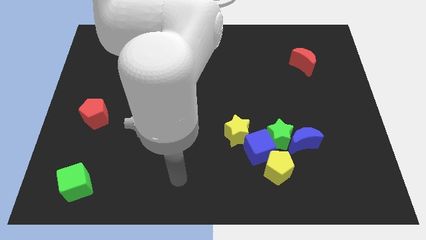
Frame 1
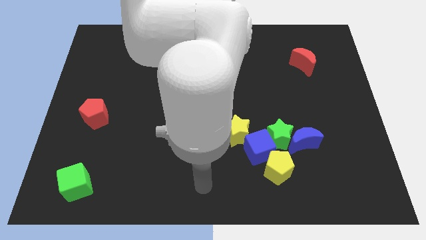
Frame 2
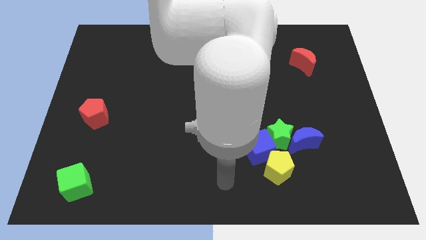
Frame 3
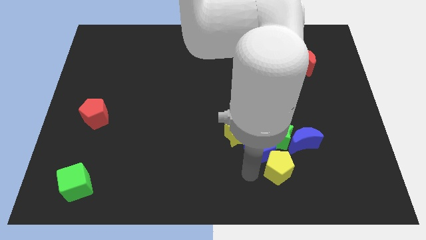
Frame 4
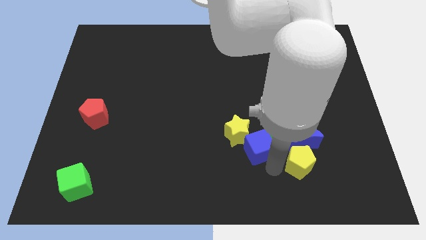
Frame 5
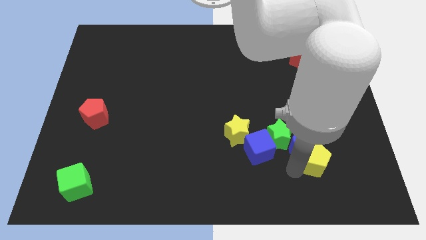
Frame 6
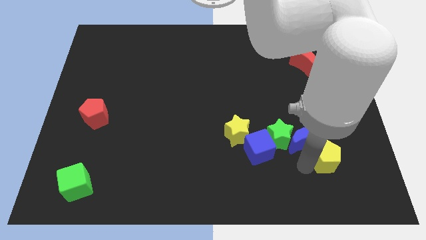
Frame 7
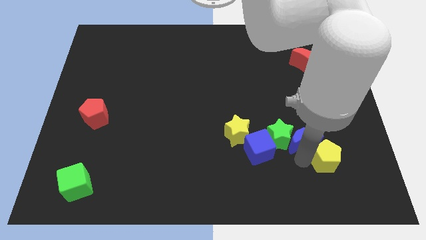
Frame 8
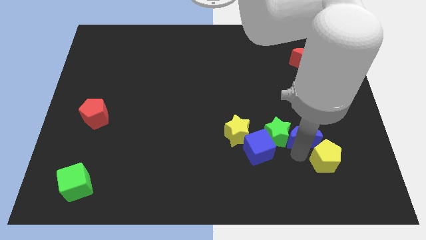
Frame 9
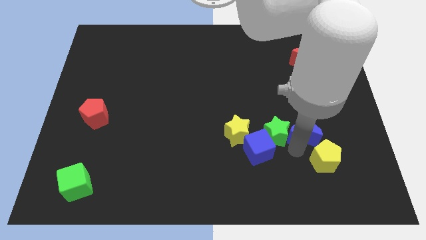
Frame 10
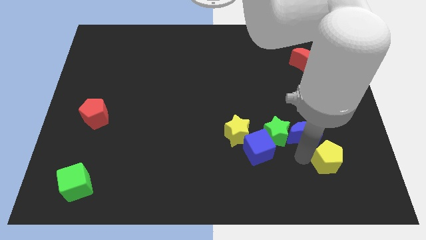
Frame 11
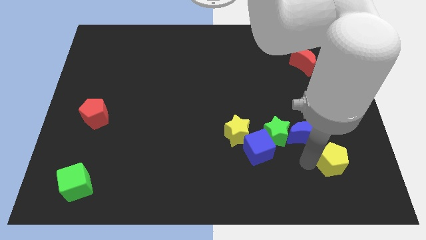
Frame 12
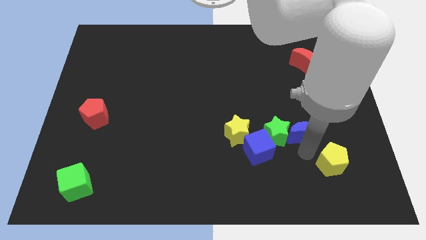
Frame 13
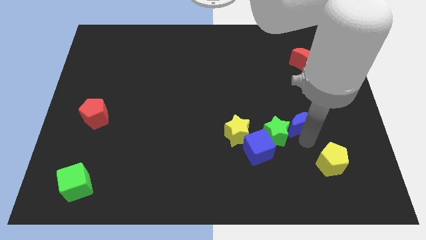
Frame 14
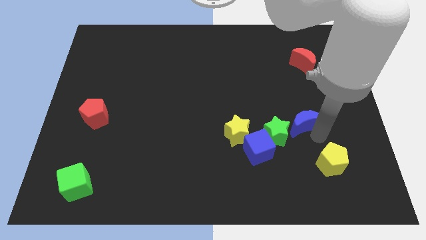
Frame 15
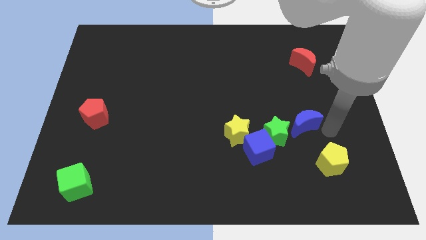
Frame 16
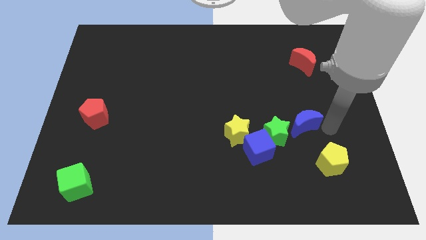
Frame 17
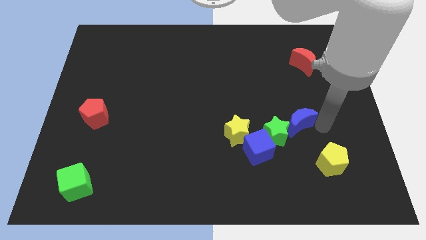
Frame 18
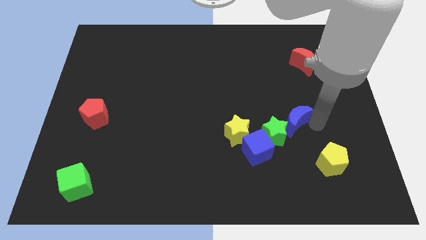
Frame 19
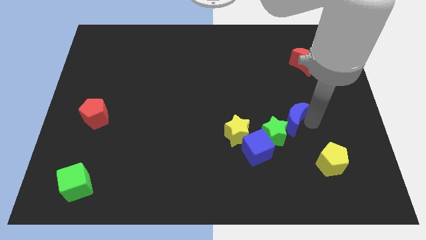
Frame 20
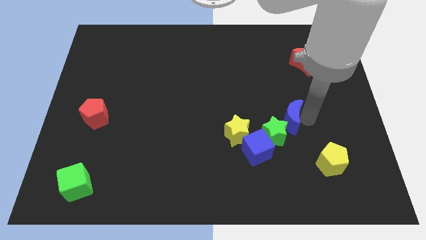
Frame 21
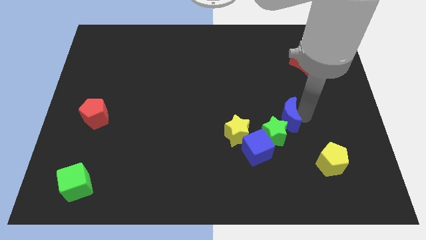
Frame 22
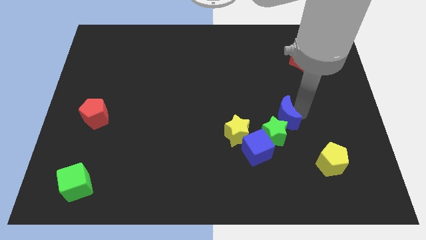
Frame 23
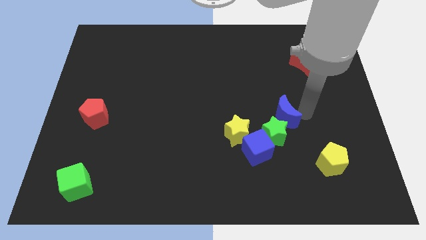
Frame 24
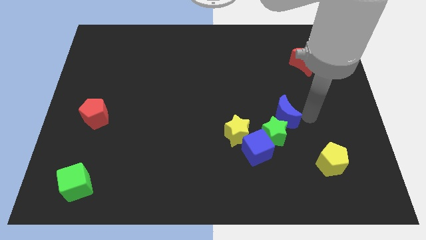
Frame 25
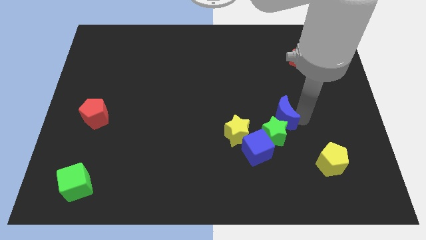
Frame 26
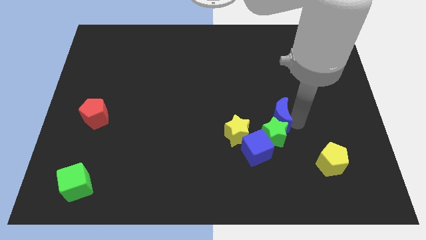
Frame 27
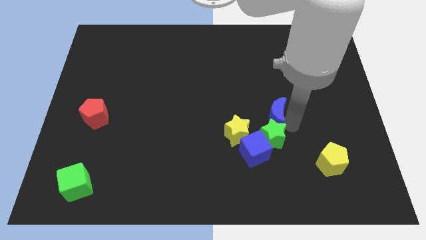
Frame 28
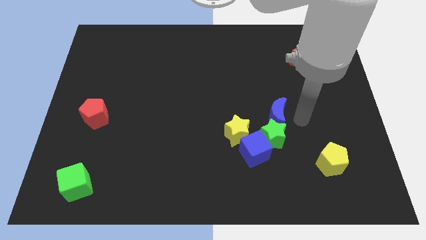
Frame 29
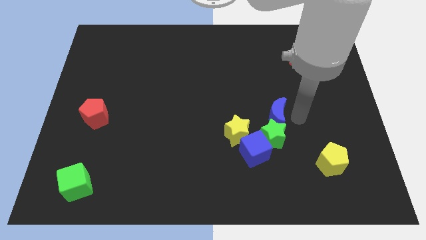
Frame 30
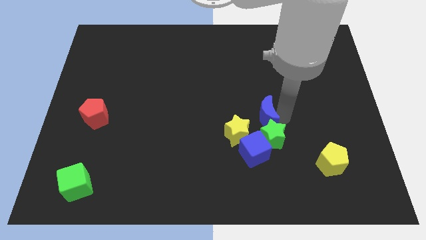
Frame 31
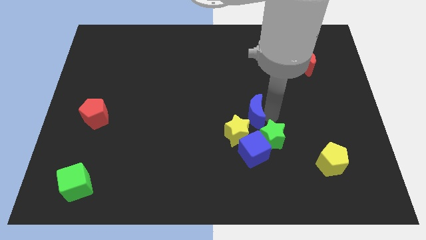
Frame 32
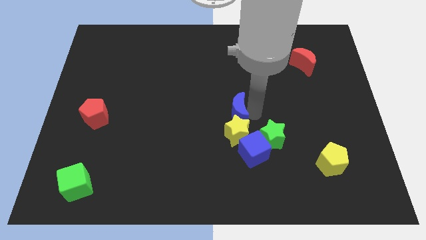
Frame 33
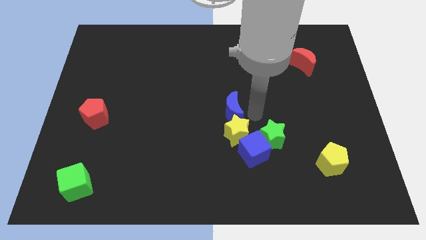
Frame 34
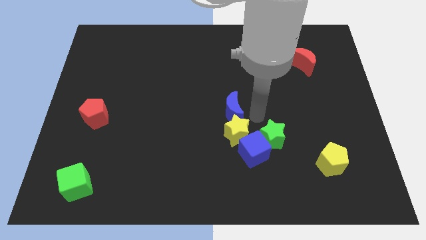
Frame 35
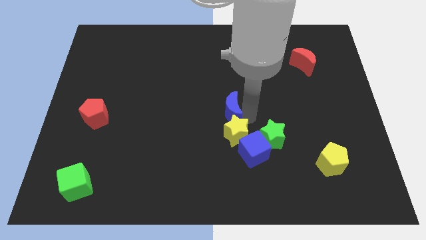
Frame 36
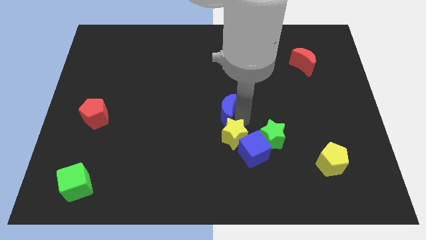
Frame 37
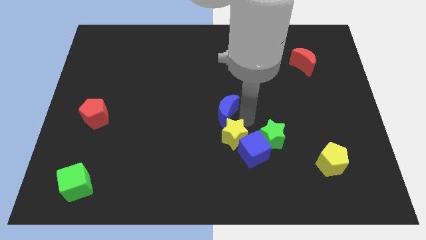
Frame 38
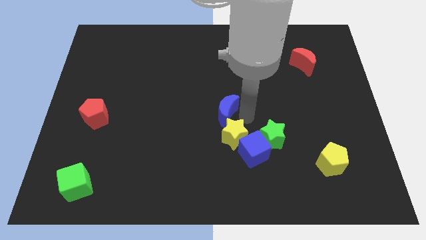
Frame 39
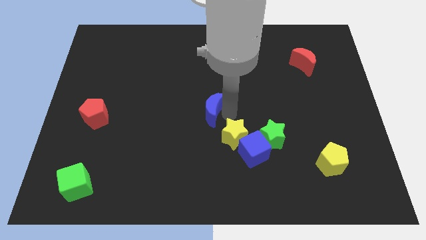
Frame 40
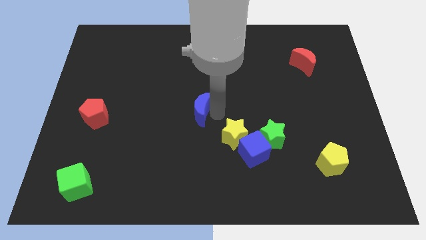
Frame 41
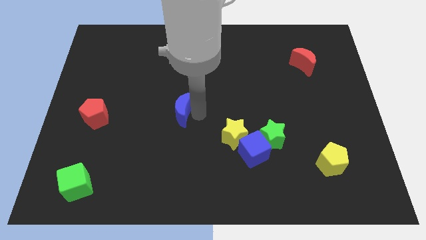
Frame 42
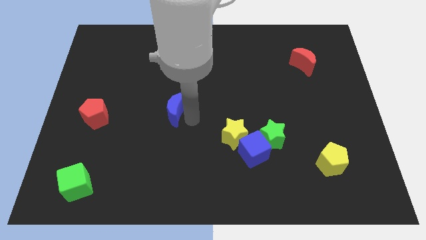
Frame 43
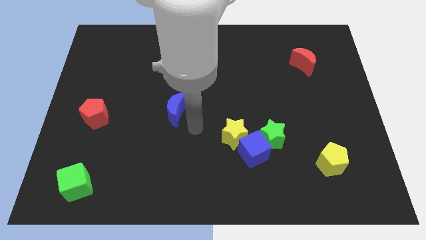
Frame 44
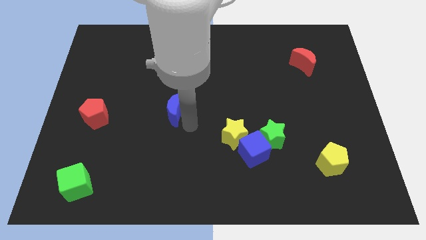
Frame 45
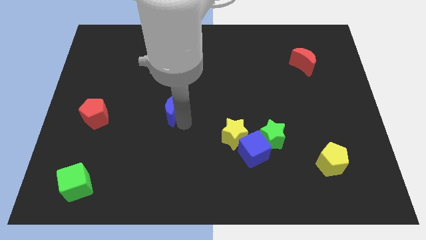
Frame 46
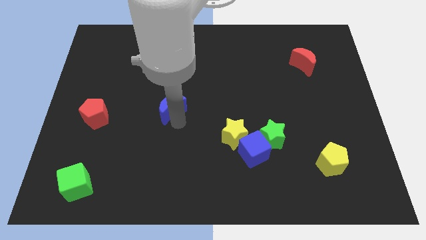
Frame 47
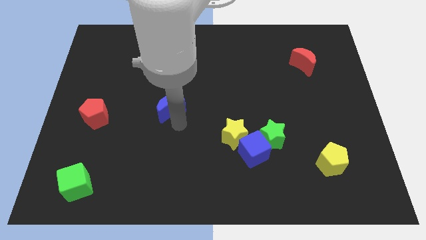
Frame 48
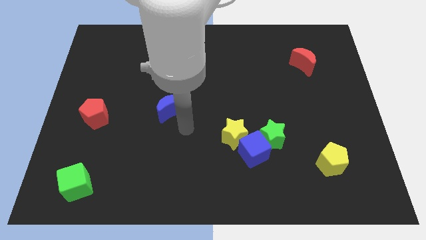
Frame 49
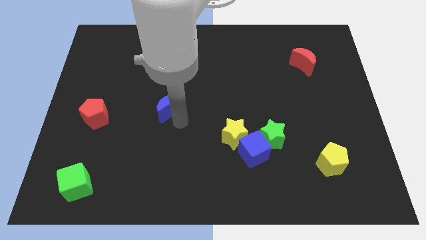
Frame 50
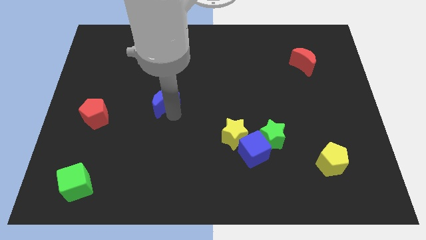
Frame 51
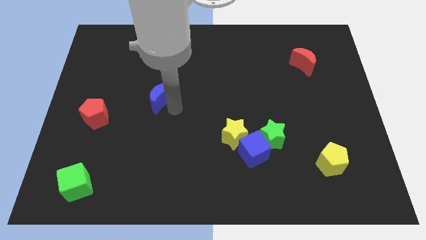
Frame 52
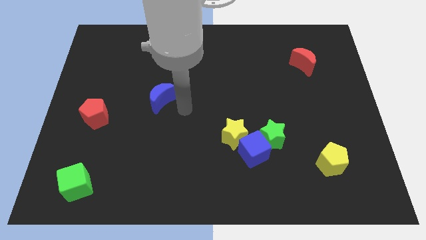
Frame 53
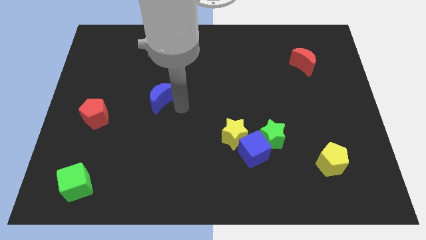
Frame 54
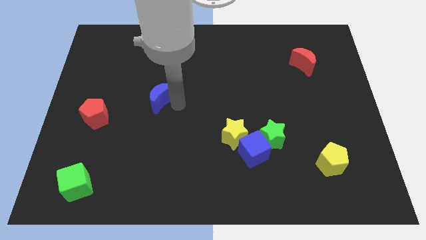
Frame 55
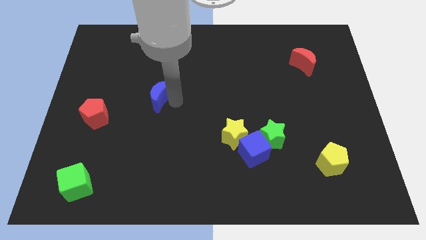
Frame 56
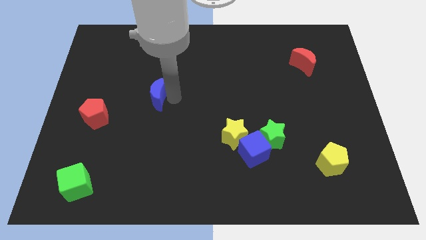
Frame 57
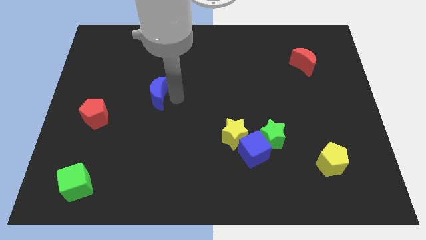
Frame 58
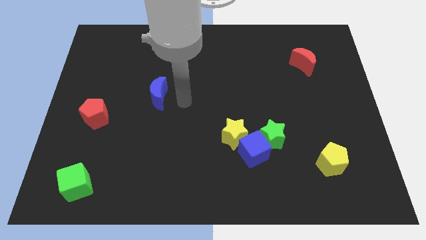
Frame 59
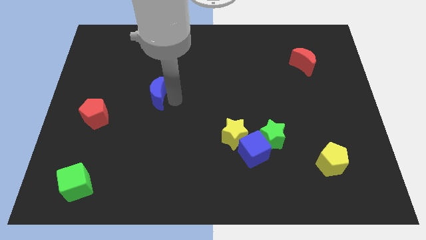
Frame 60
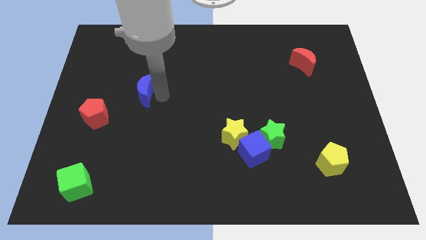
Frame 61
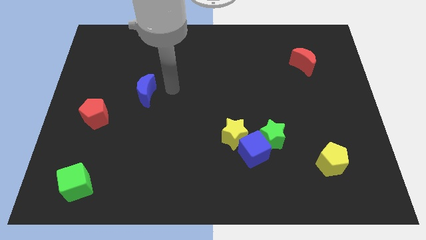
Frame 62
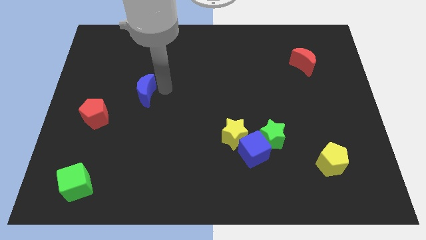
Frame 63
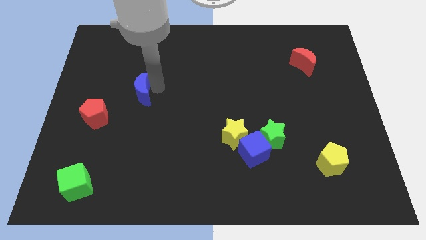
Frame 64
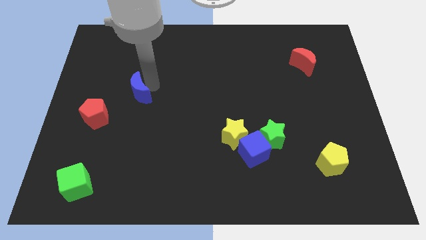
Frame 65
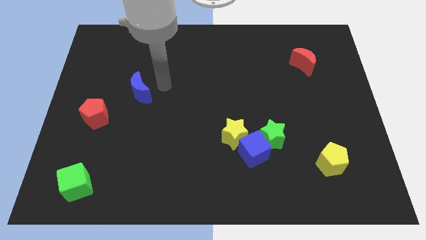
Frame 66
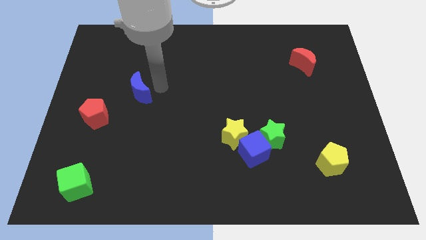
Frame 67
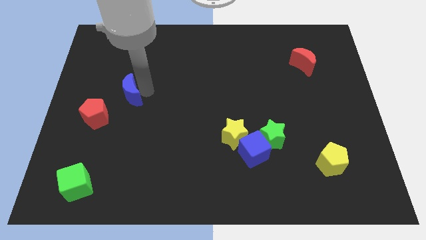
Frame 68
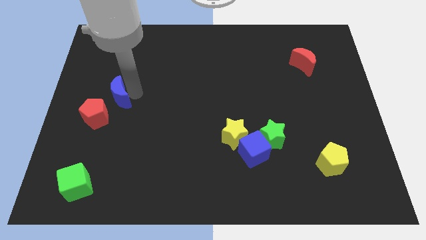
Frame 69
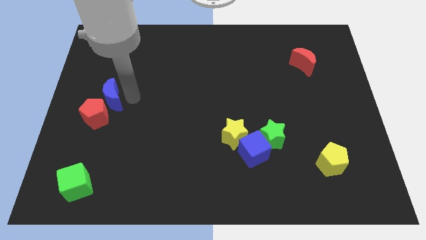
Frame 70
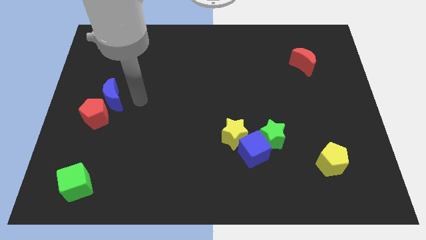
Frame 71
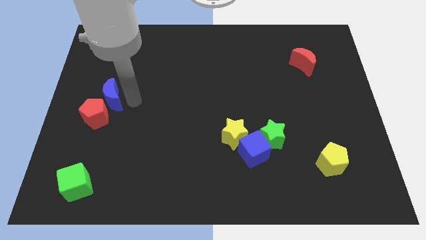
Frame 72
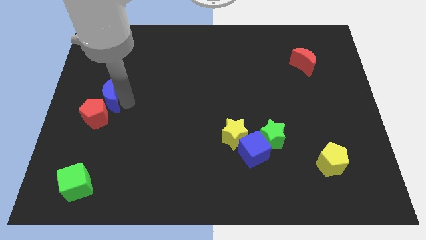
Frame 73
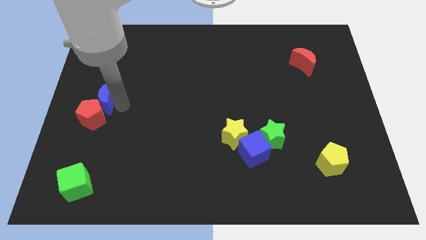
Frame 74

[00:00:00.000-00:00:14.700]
slide the blue moon to the left side of the board
